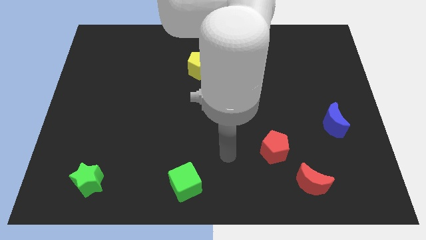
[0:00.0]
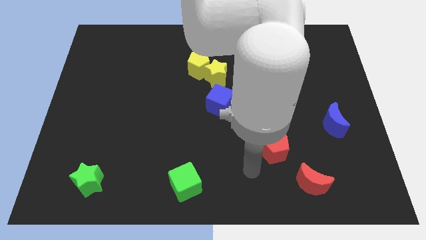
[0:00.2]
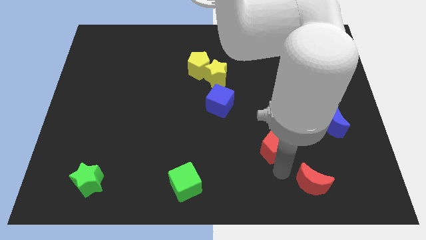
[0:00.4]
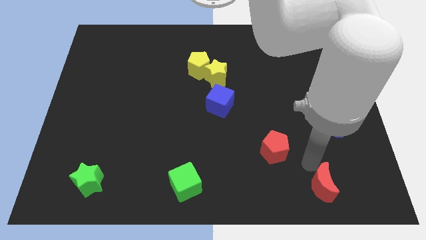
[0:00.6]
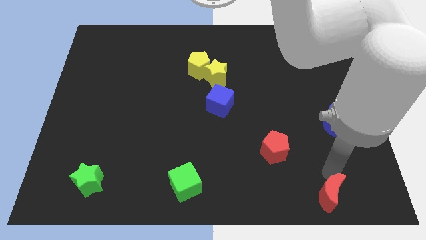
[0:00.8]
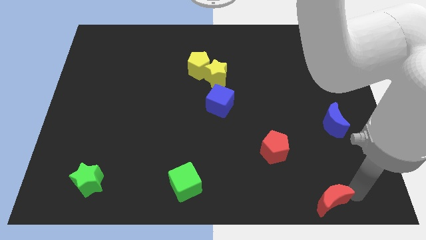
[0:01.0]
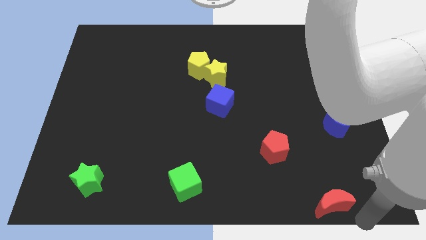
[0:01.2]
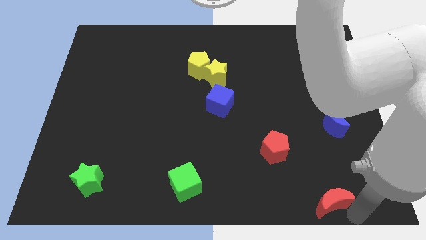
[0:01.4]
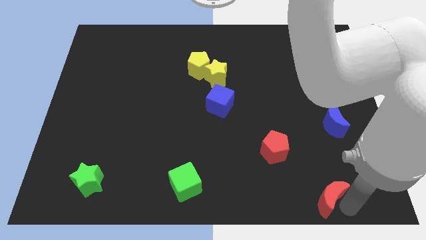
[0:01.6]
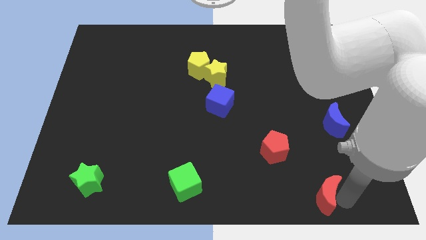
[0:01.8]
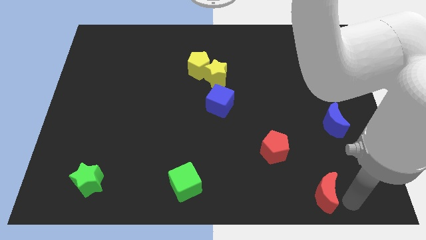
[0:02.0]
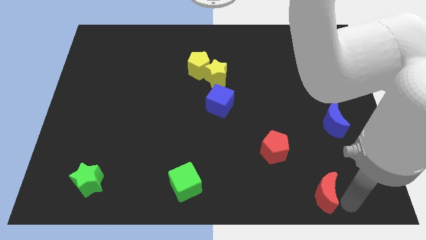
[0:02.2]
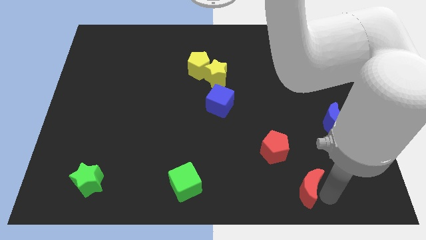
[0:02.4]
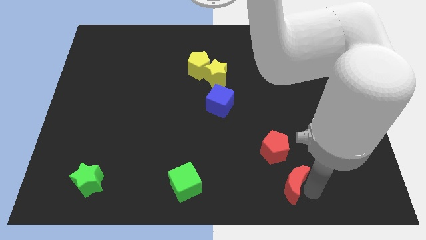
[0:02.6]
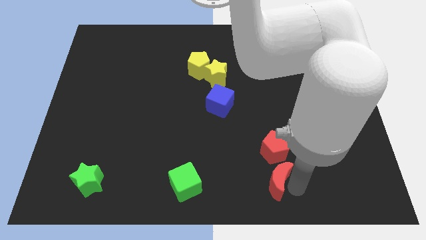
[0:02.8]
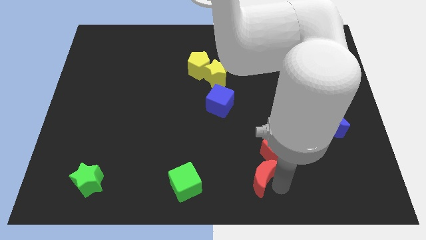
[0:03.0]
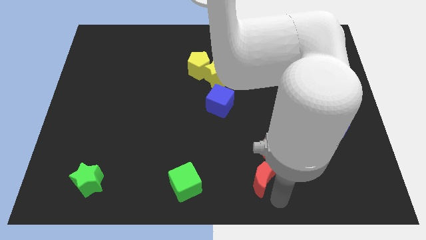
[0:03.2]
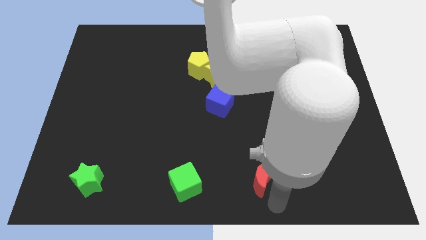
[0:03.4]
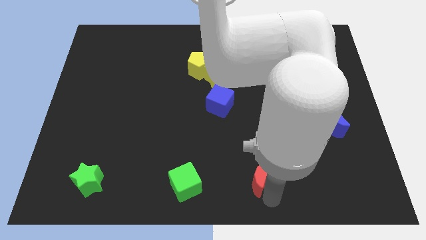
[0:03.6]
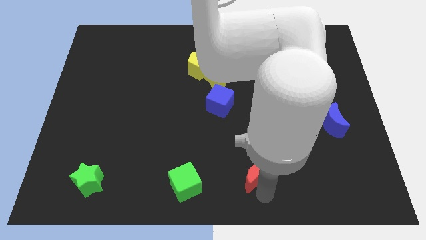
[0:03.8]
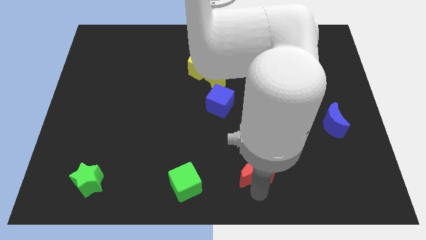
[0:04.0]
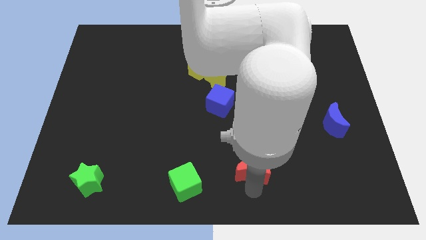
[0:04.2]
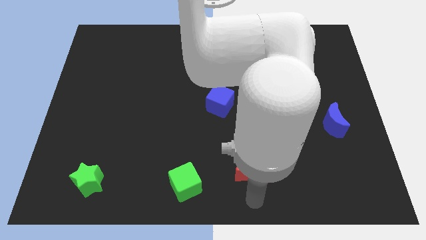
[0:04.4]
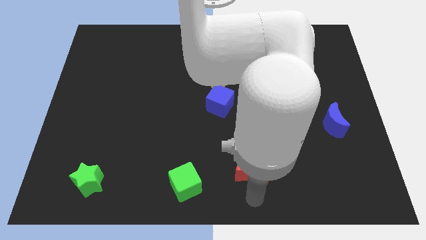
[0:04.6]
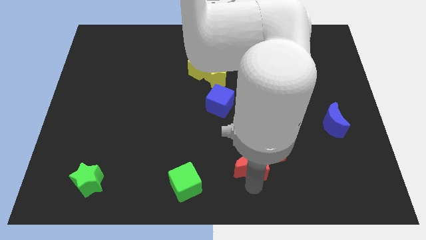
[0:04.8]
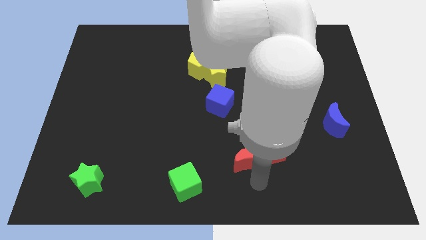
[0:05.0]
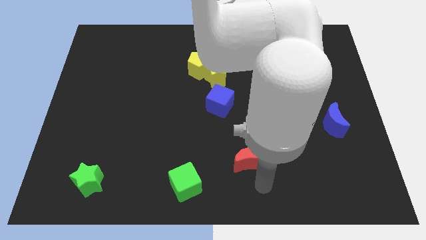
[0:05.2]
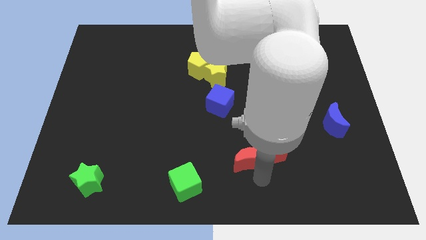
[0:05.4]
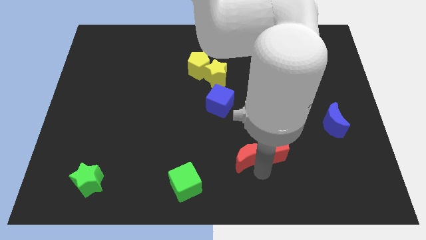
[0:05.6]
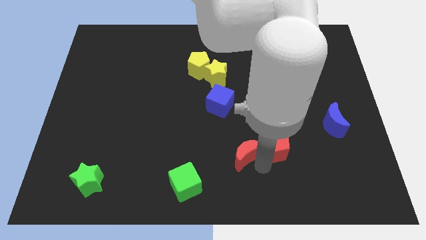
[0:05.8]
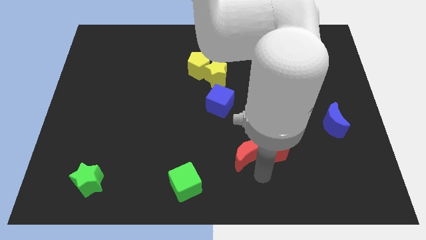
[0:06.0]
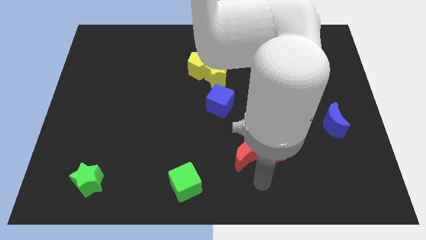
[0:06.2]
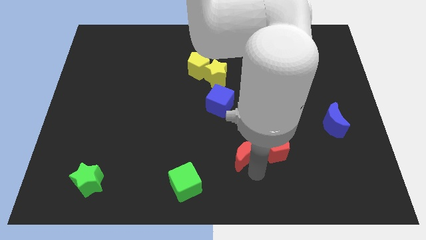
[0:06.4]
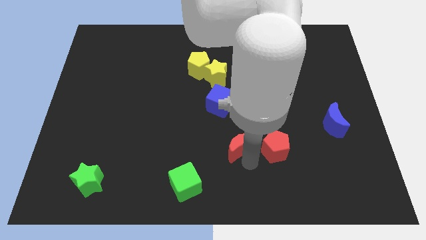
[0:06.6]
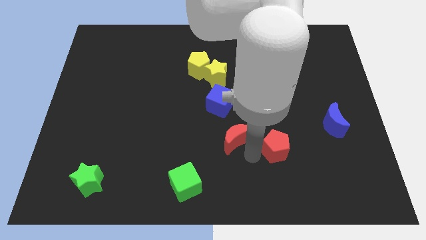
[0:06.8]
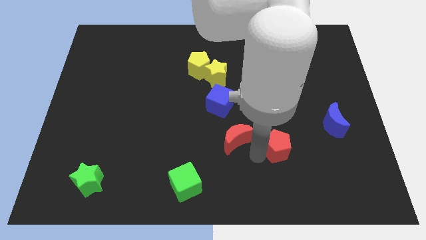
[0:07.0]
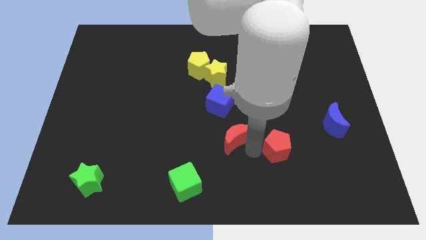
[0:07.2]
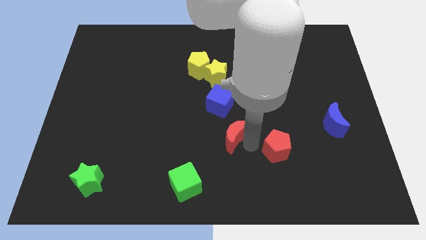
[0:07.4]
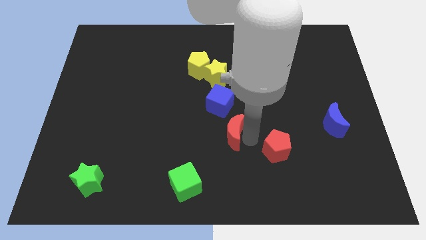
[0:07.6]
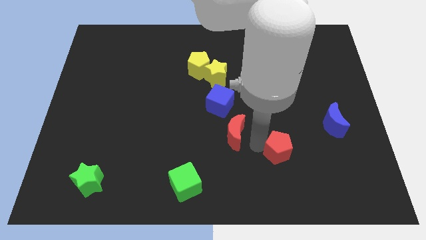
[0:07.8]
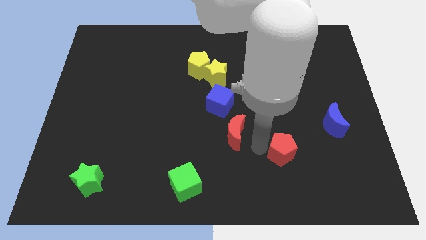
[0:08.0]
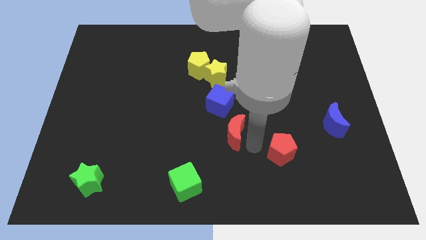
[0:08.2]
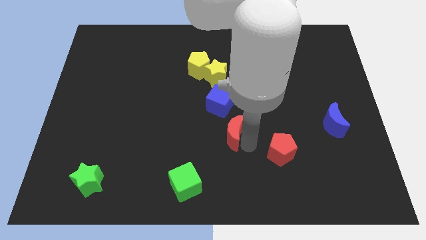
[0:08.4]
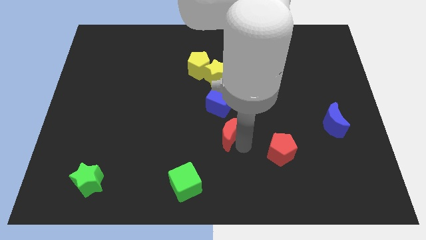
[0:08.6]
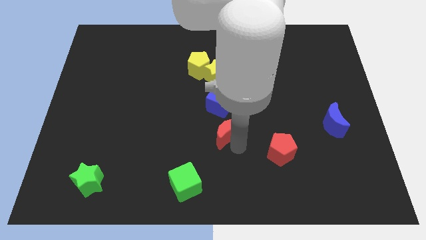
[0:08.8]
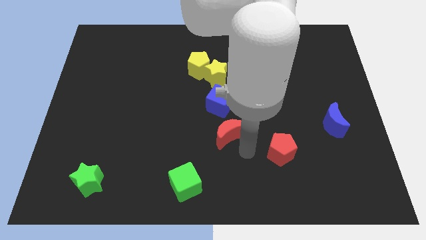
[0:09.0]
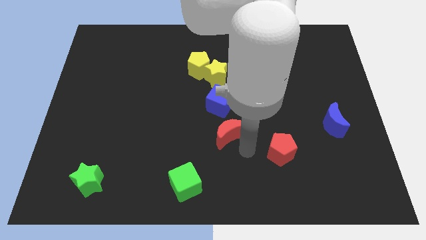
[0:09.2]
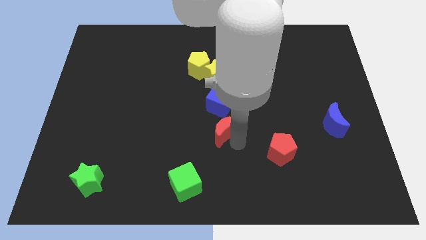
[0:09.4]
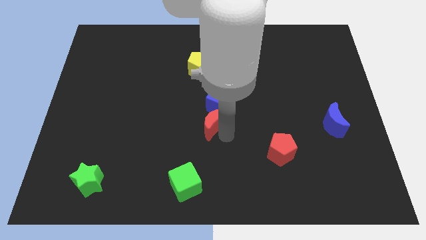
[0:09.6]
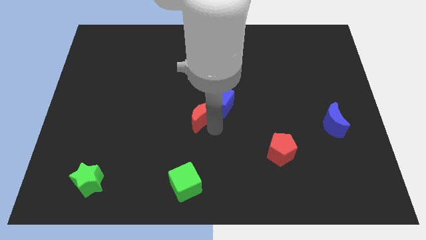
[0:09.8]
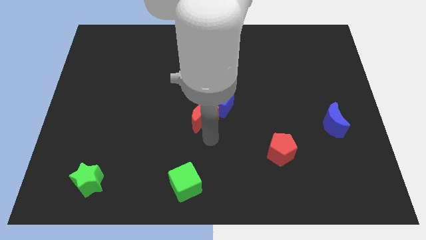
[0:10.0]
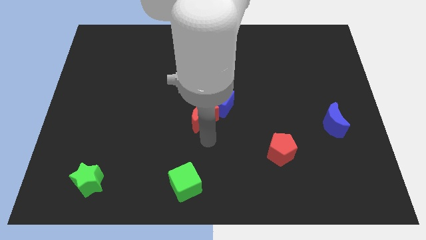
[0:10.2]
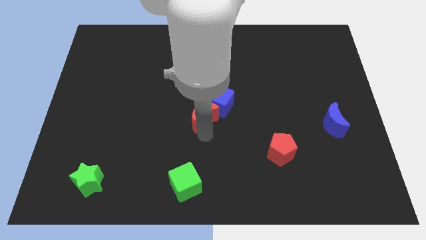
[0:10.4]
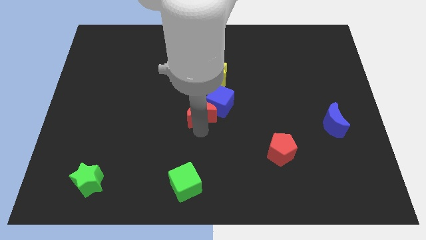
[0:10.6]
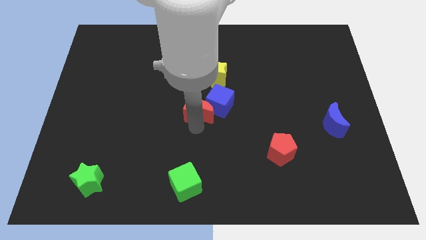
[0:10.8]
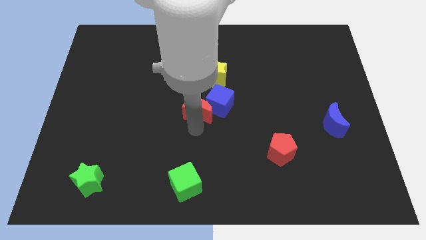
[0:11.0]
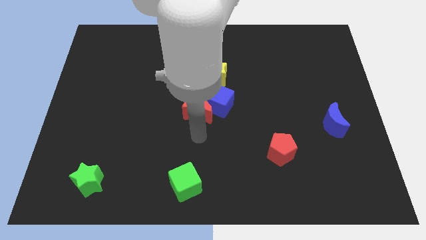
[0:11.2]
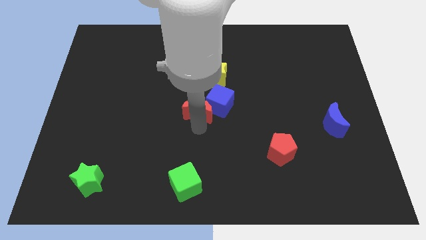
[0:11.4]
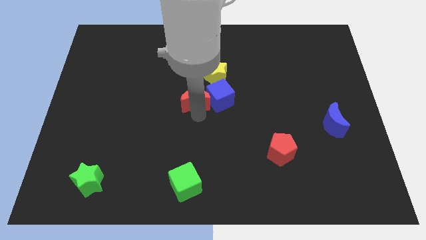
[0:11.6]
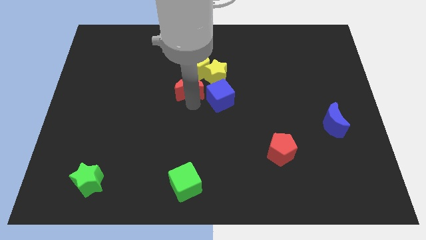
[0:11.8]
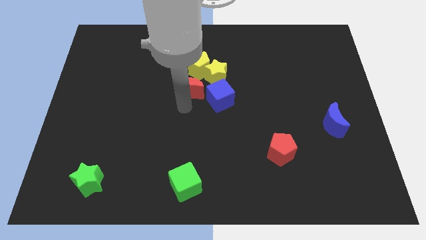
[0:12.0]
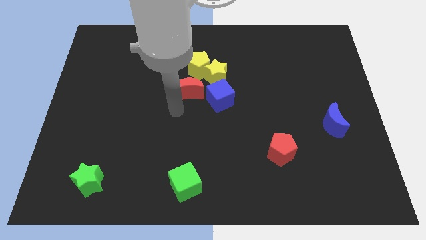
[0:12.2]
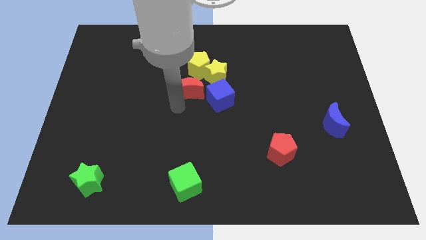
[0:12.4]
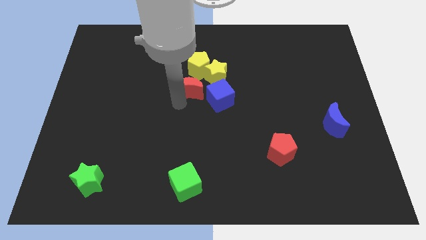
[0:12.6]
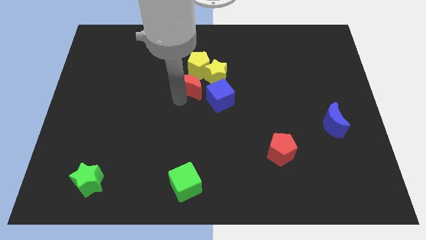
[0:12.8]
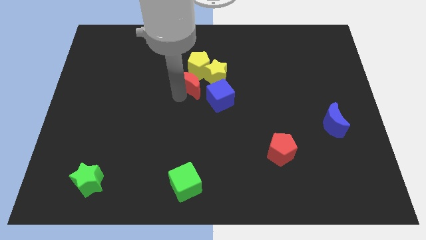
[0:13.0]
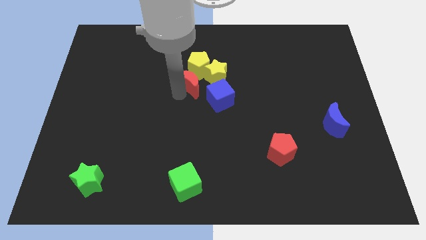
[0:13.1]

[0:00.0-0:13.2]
put the red moon close to the yellow pentagon
